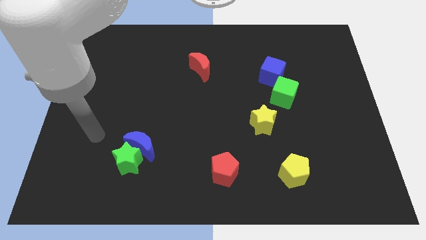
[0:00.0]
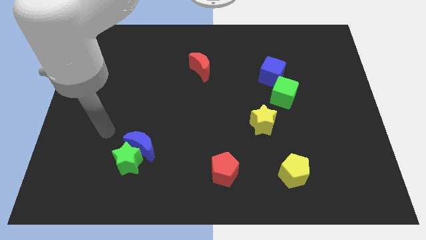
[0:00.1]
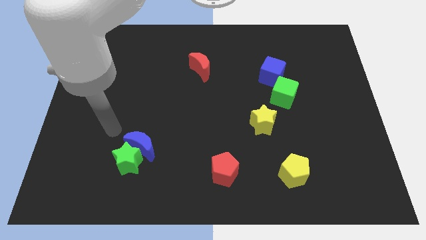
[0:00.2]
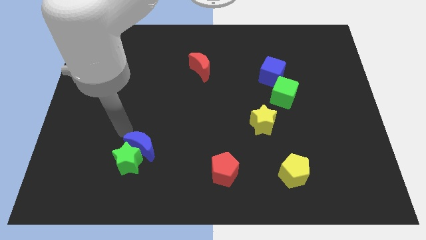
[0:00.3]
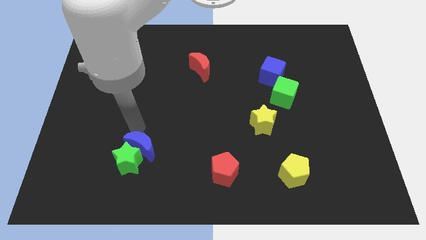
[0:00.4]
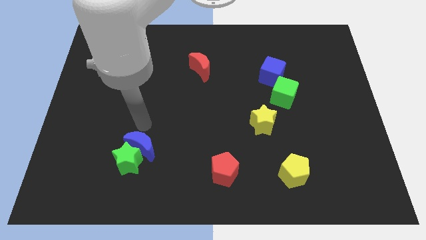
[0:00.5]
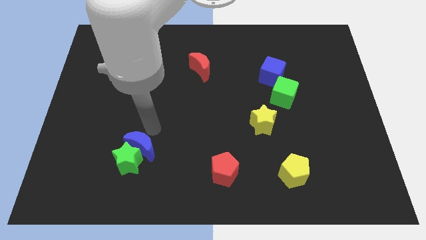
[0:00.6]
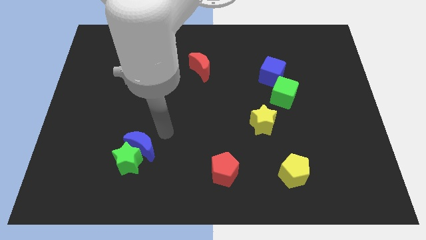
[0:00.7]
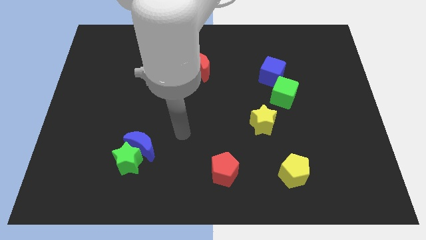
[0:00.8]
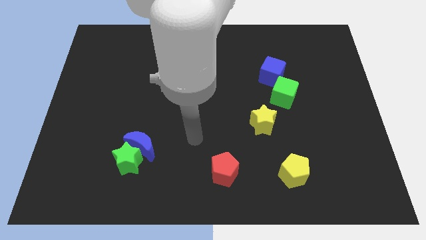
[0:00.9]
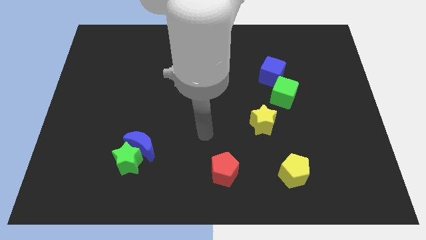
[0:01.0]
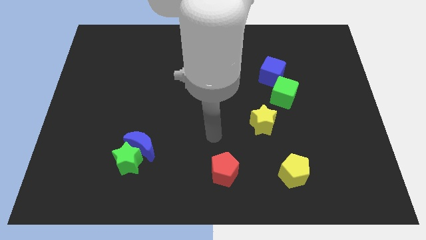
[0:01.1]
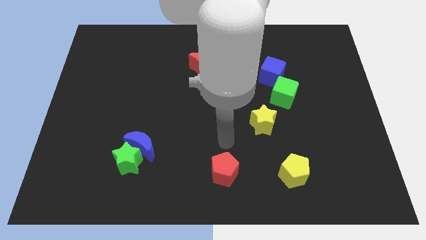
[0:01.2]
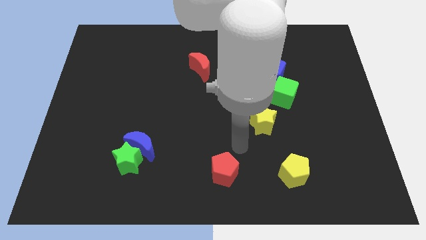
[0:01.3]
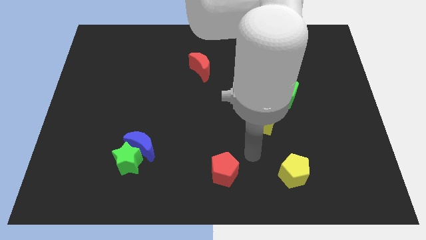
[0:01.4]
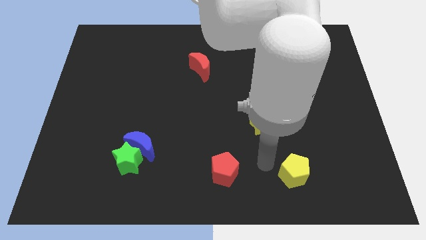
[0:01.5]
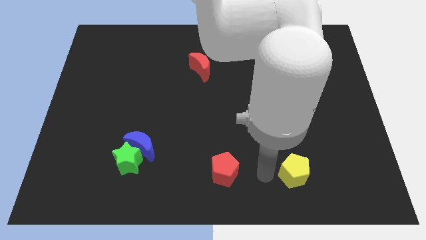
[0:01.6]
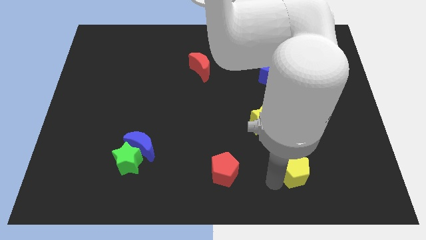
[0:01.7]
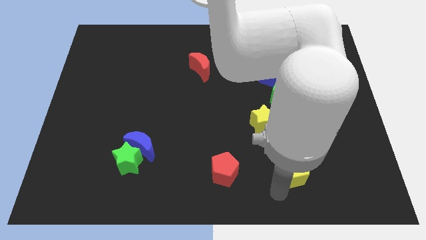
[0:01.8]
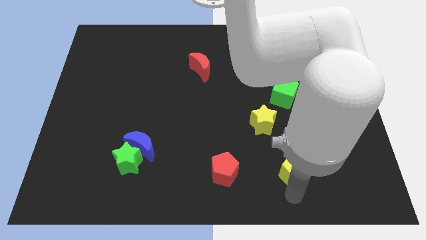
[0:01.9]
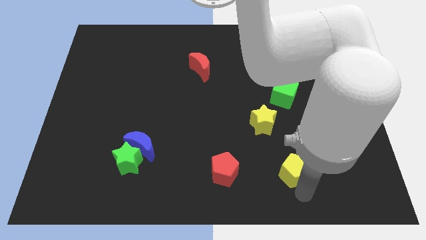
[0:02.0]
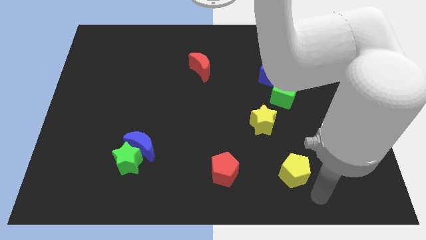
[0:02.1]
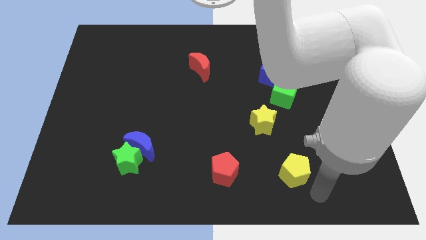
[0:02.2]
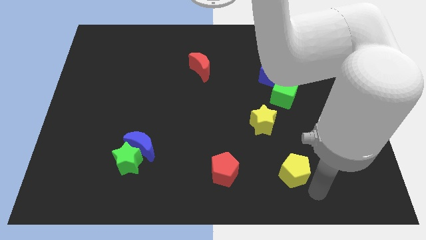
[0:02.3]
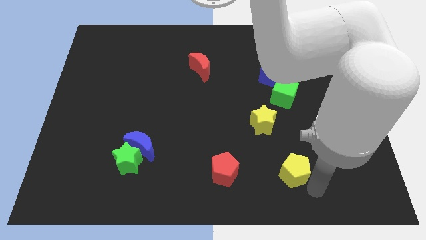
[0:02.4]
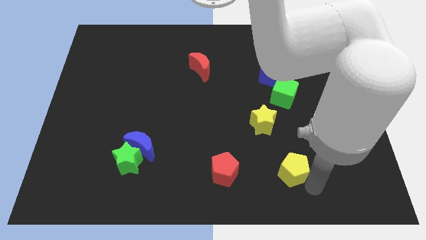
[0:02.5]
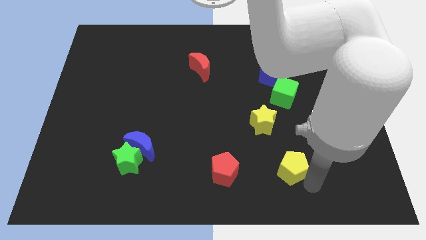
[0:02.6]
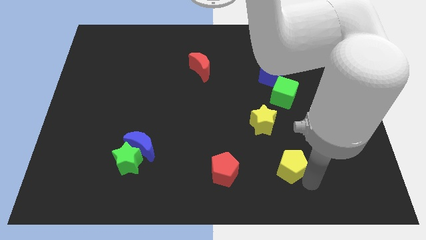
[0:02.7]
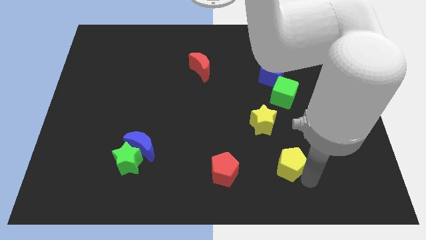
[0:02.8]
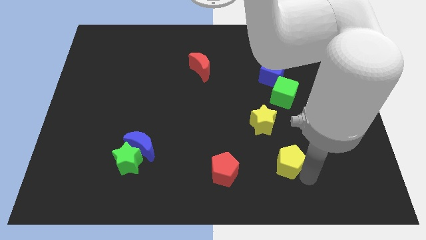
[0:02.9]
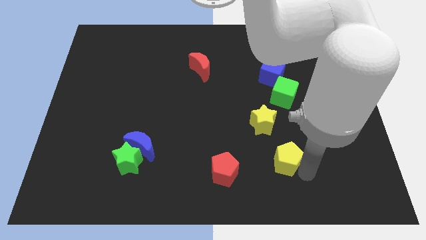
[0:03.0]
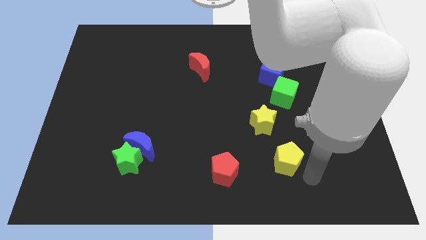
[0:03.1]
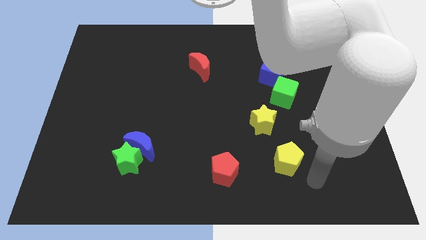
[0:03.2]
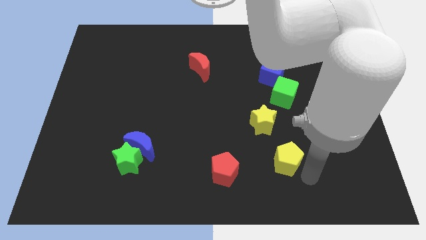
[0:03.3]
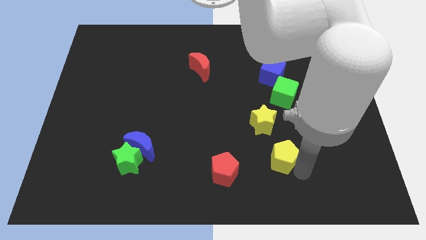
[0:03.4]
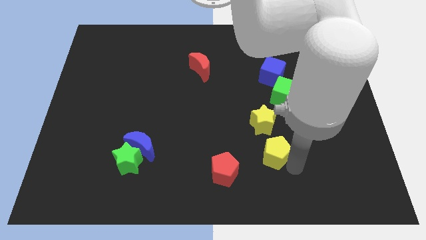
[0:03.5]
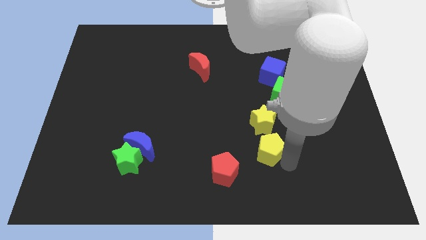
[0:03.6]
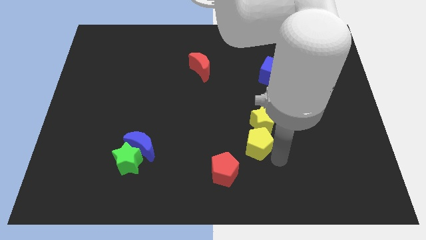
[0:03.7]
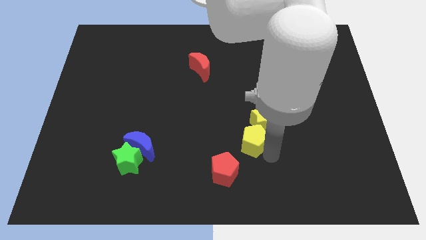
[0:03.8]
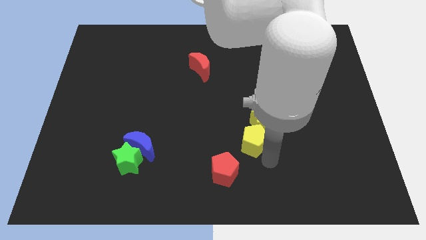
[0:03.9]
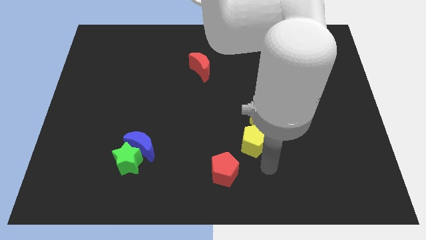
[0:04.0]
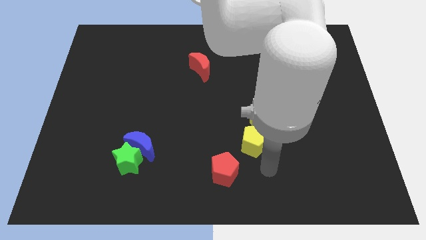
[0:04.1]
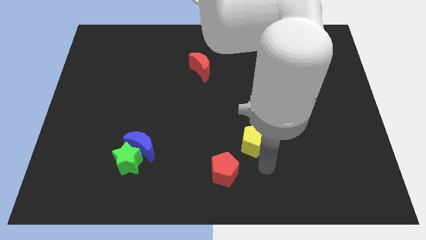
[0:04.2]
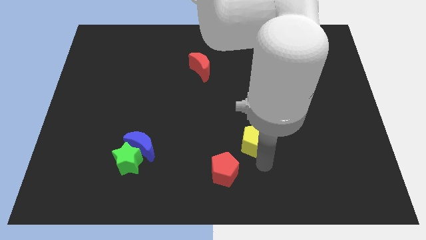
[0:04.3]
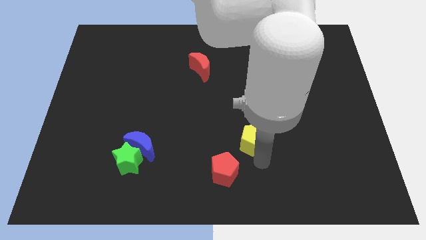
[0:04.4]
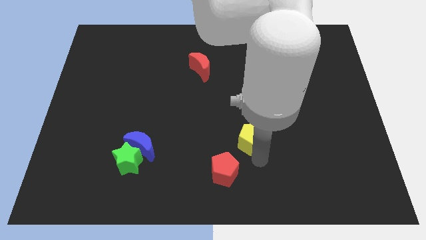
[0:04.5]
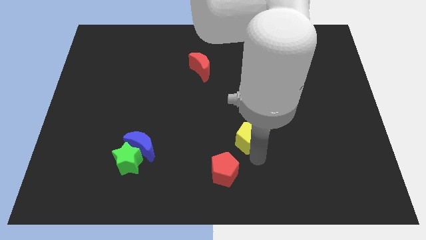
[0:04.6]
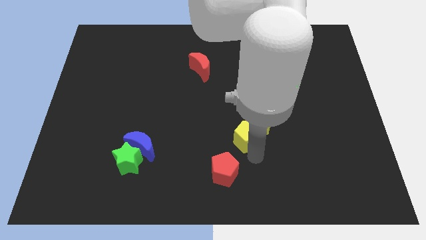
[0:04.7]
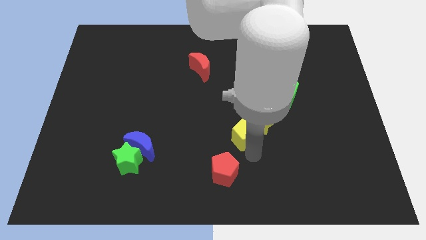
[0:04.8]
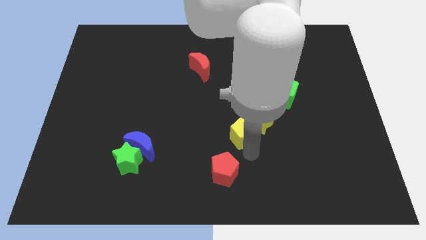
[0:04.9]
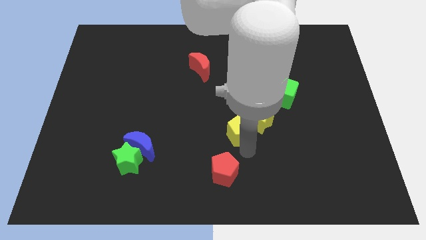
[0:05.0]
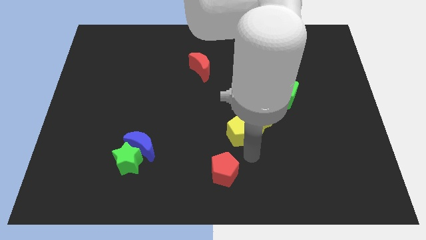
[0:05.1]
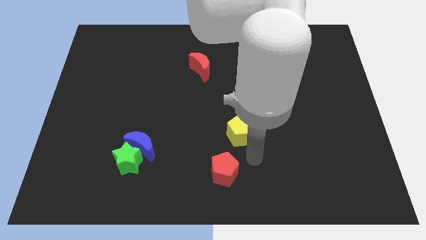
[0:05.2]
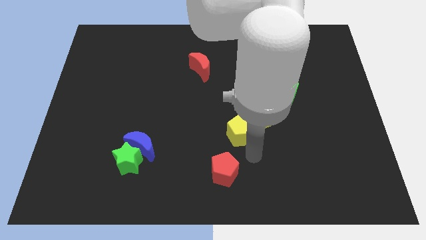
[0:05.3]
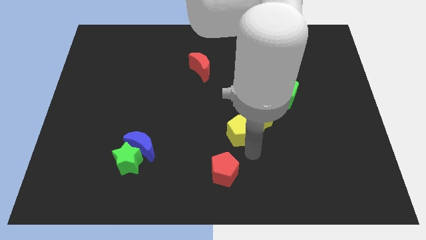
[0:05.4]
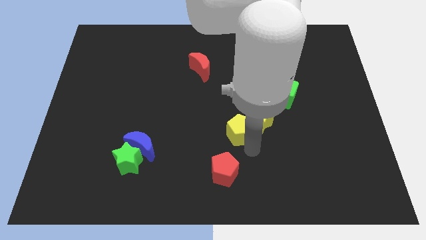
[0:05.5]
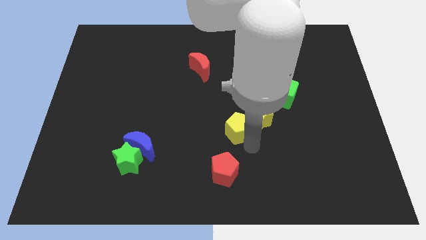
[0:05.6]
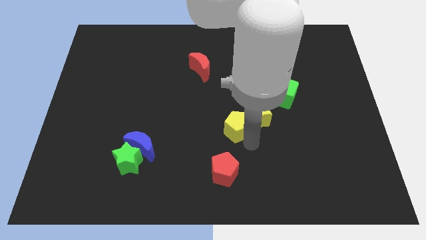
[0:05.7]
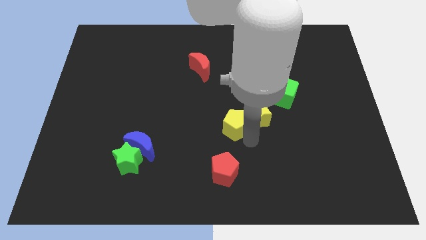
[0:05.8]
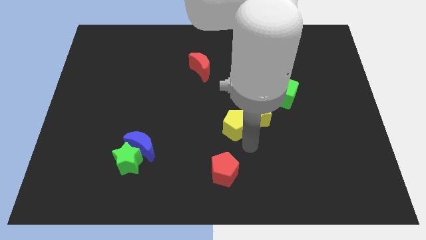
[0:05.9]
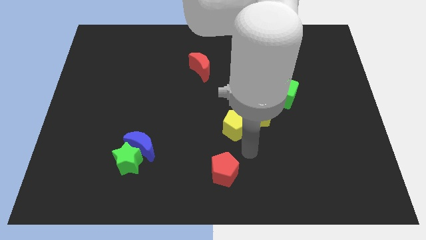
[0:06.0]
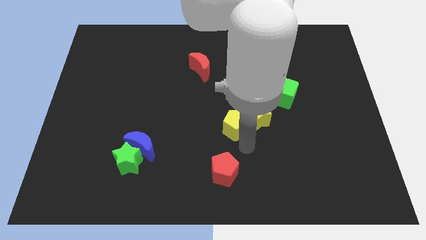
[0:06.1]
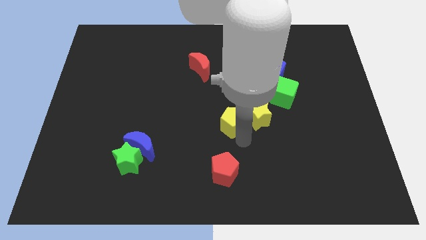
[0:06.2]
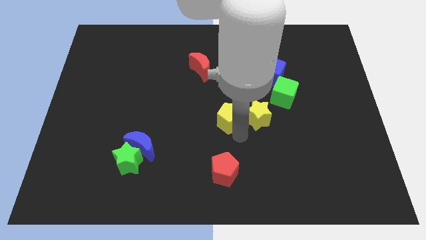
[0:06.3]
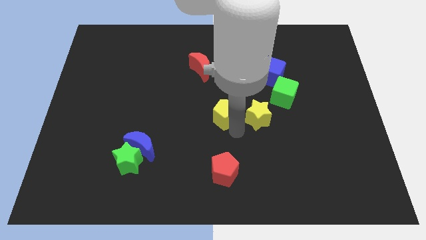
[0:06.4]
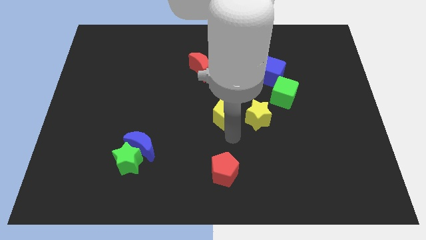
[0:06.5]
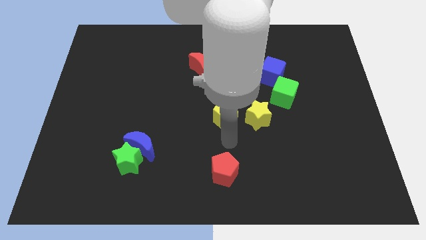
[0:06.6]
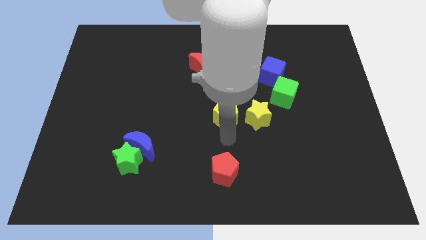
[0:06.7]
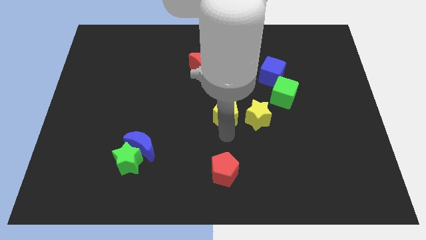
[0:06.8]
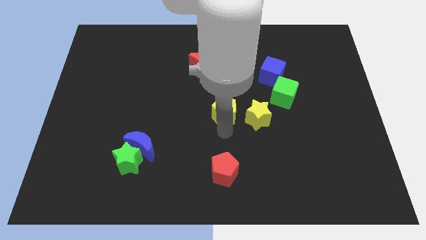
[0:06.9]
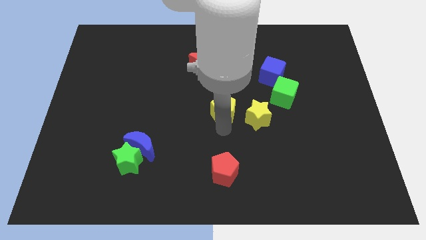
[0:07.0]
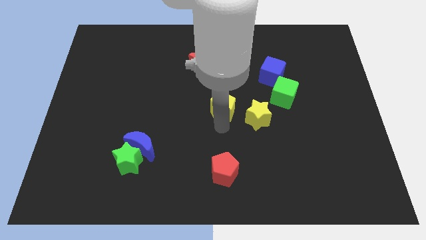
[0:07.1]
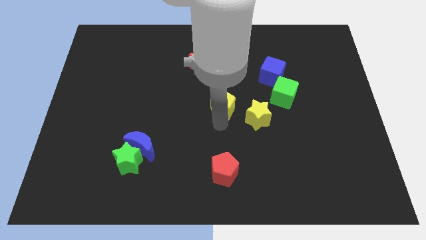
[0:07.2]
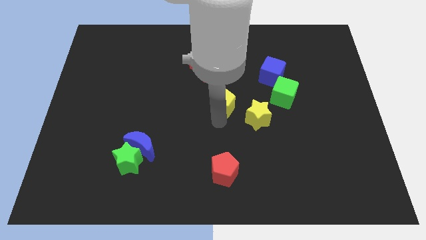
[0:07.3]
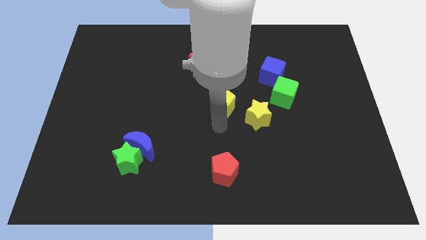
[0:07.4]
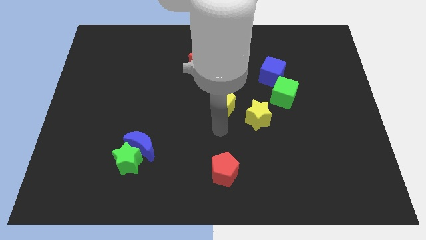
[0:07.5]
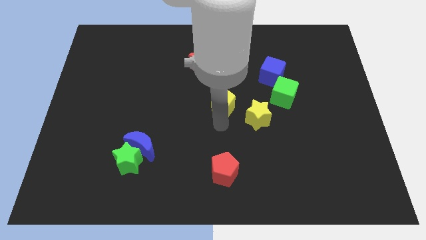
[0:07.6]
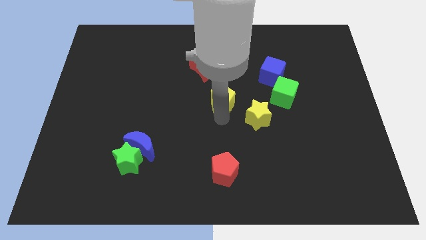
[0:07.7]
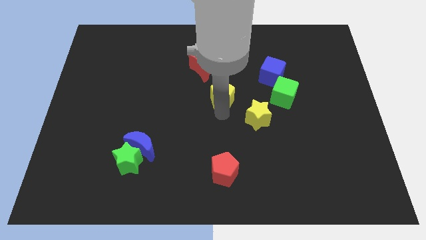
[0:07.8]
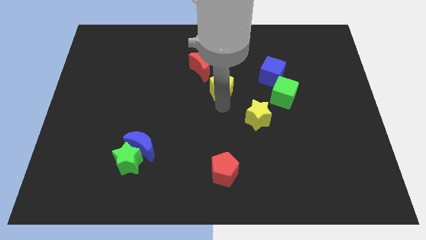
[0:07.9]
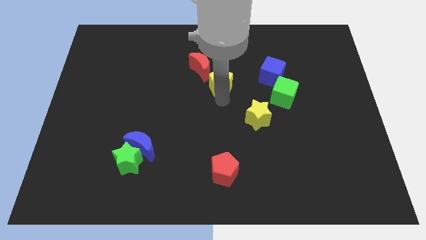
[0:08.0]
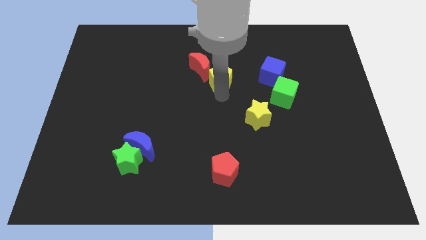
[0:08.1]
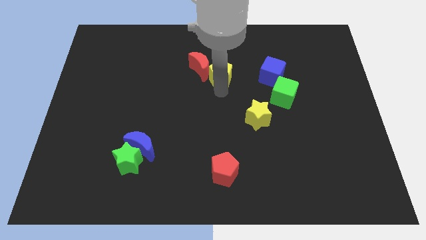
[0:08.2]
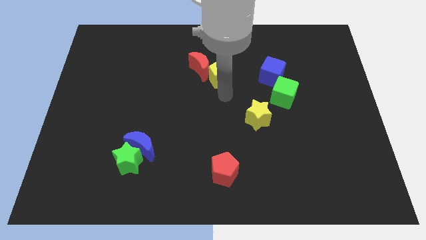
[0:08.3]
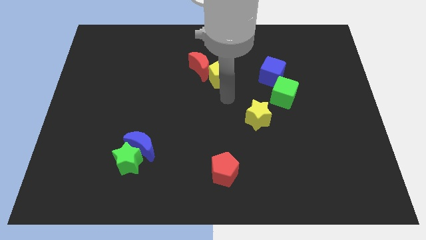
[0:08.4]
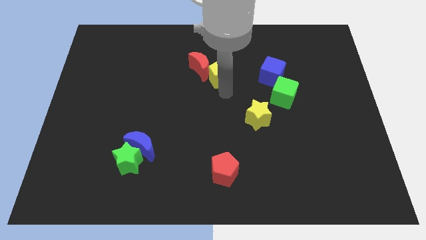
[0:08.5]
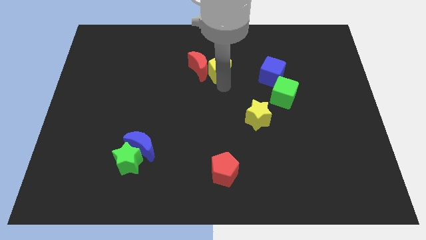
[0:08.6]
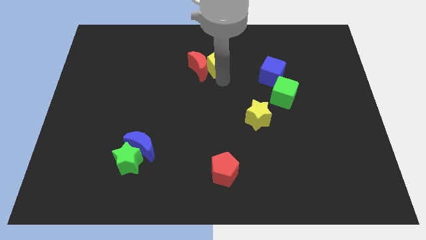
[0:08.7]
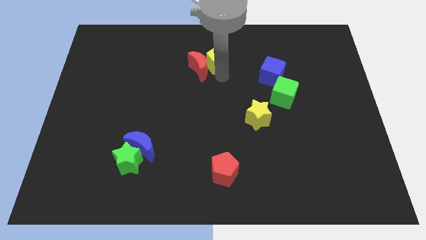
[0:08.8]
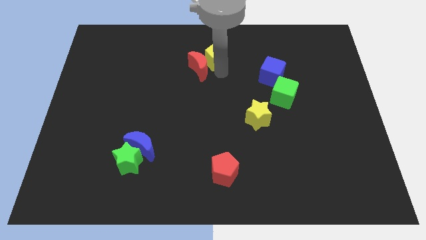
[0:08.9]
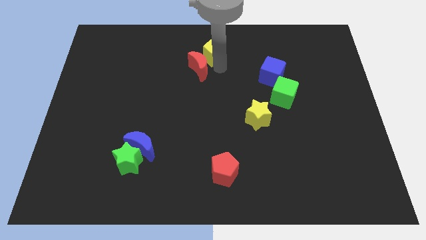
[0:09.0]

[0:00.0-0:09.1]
push the yellow pentagon to the towards your base
